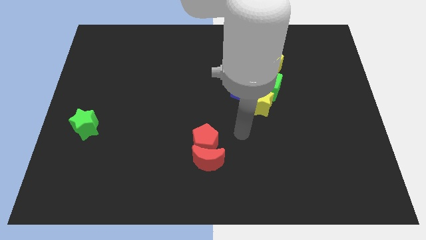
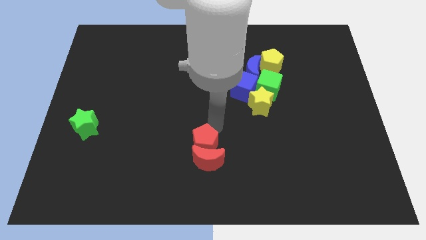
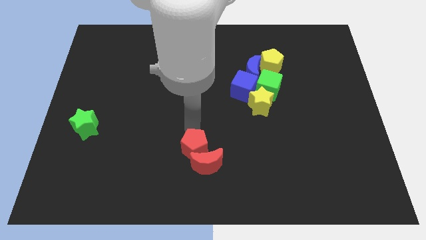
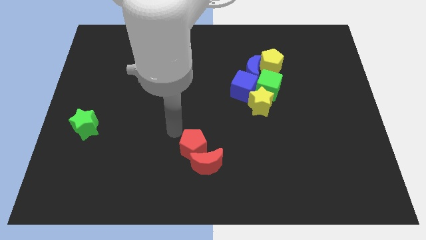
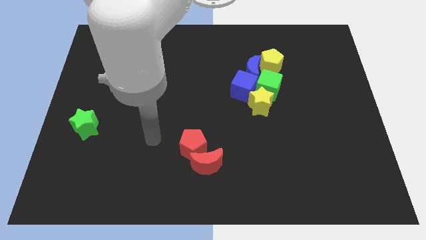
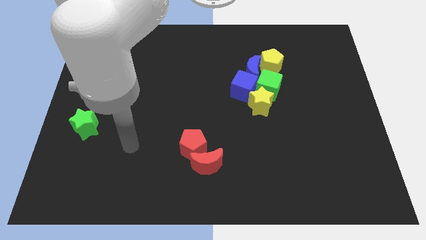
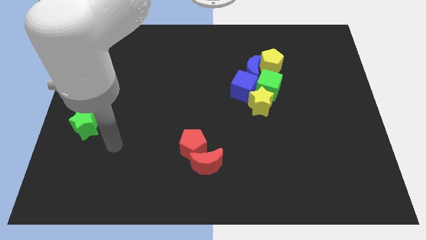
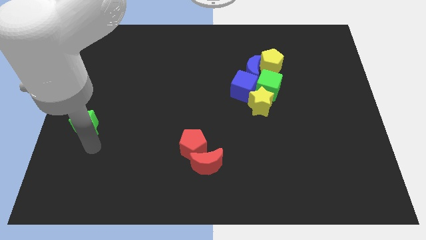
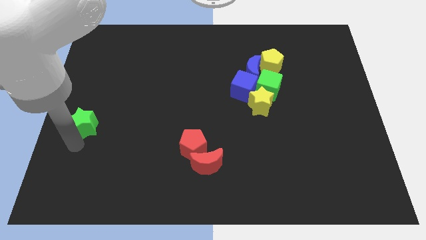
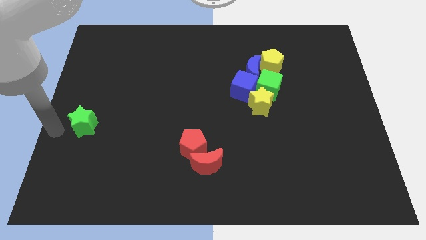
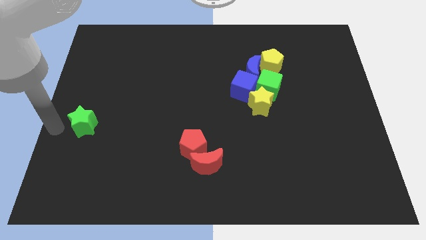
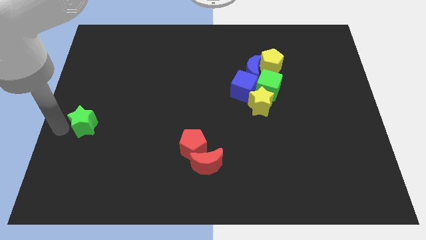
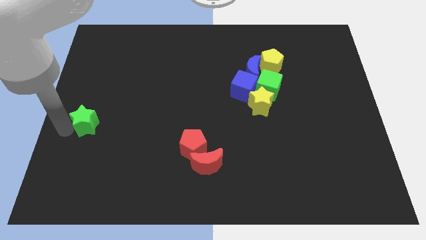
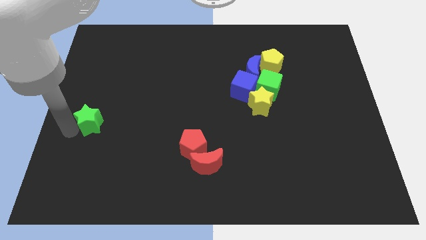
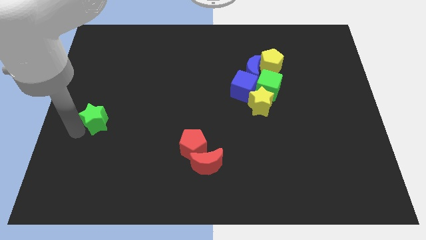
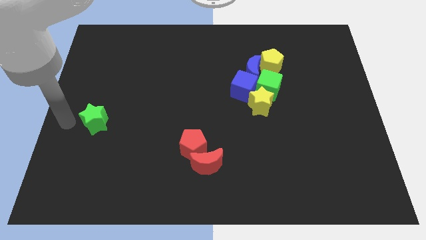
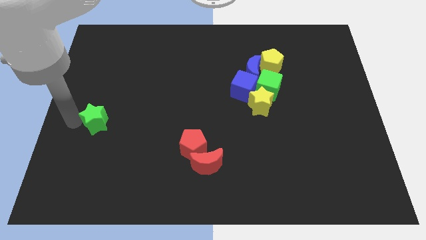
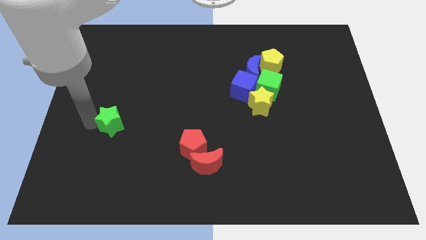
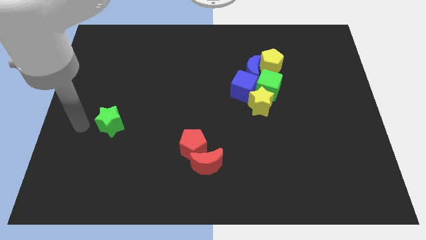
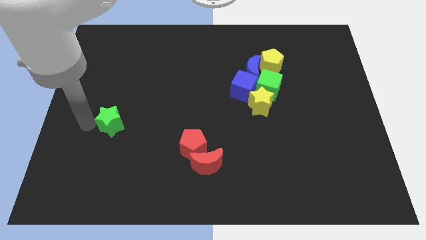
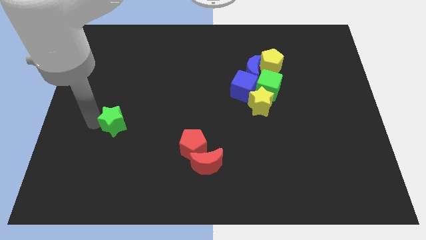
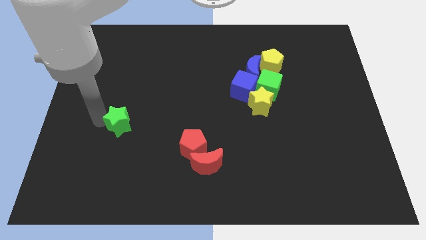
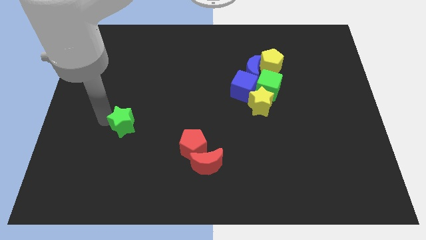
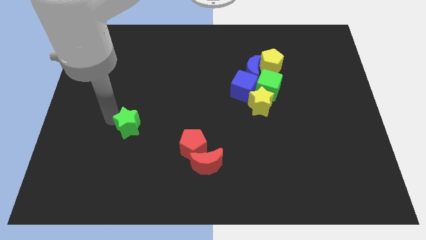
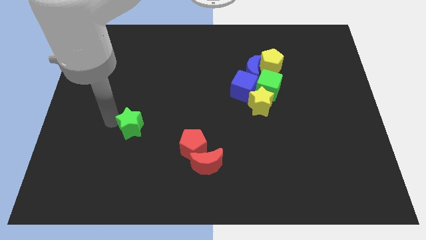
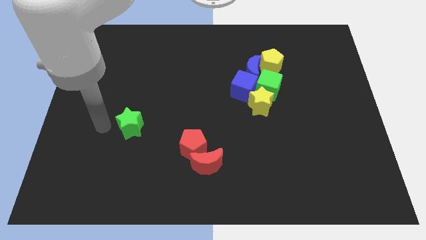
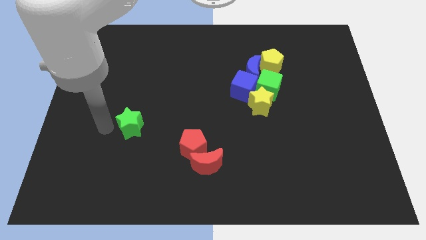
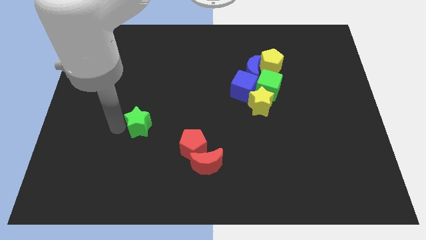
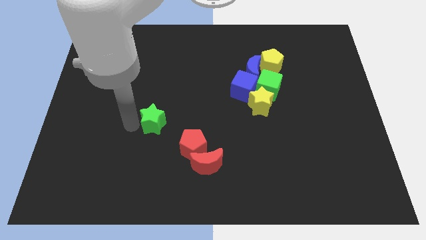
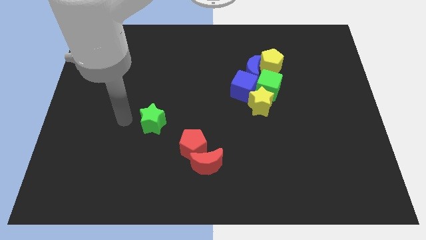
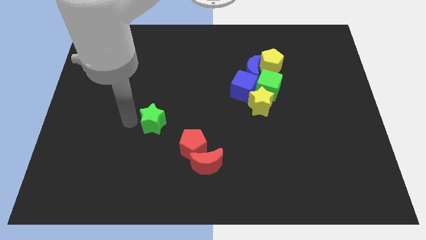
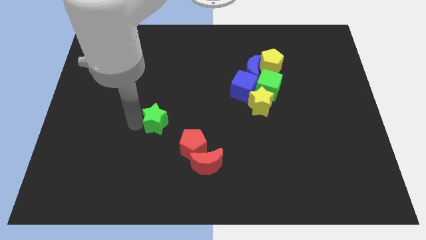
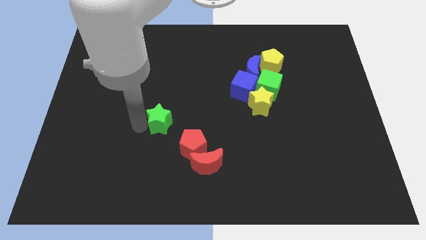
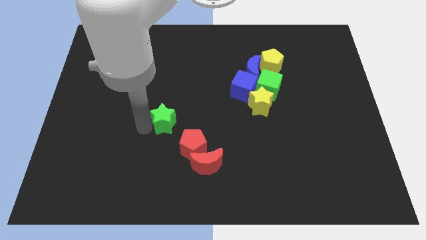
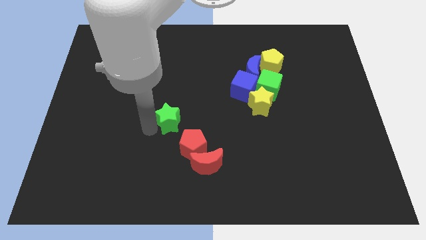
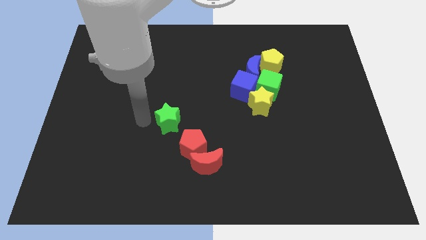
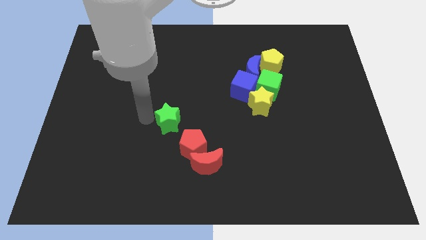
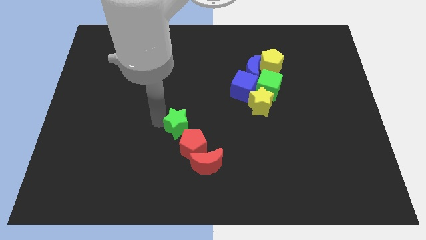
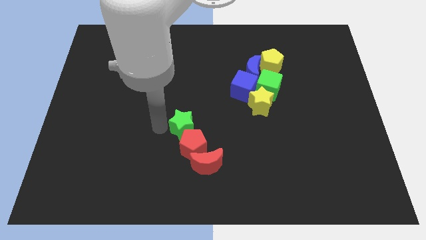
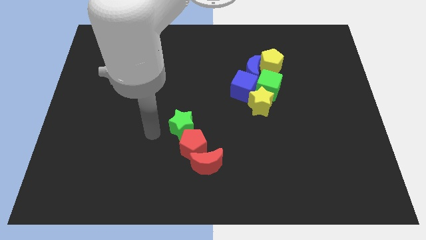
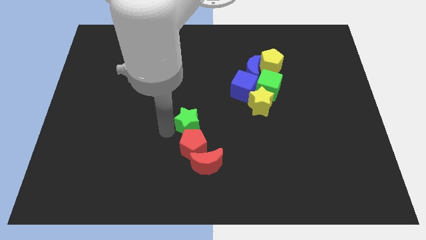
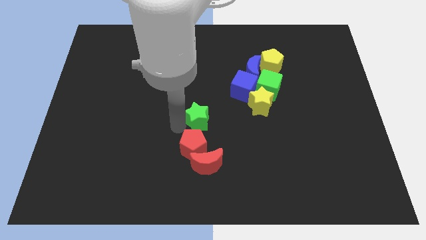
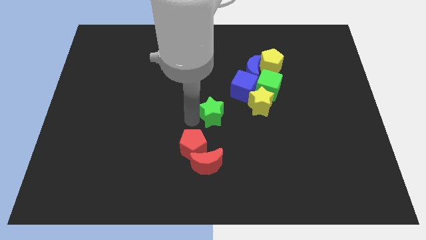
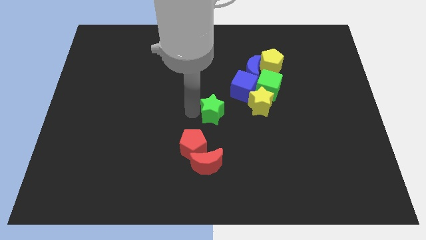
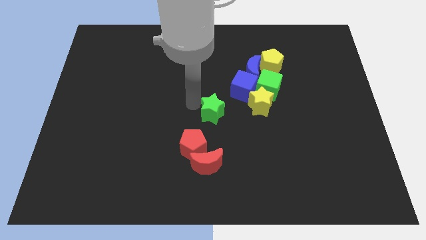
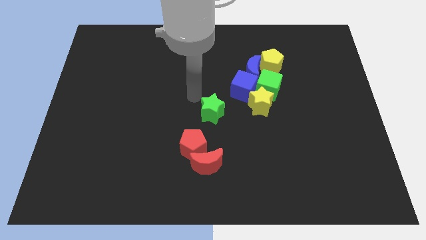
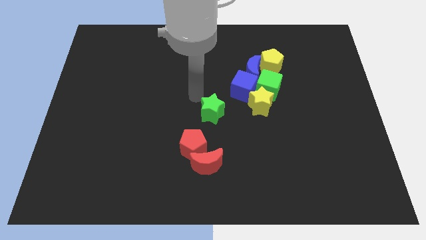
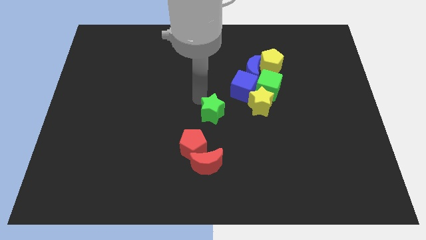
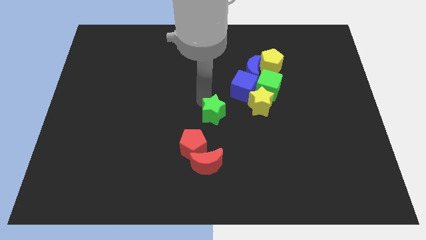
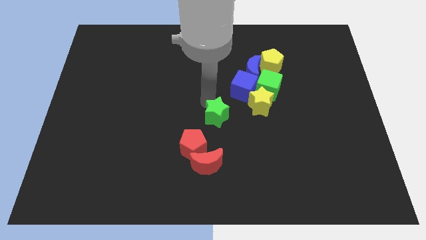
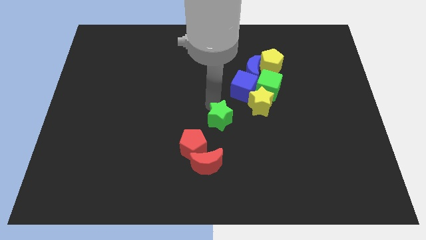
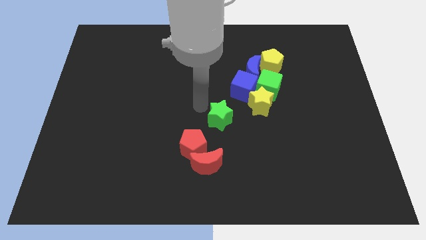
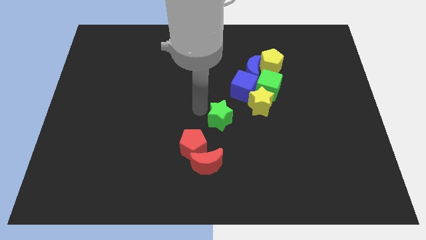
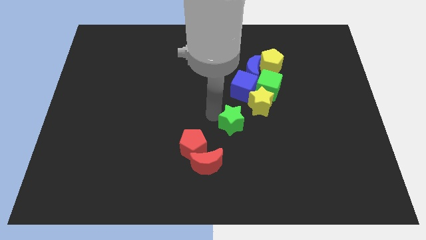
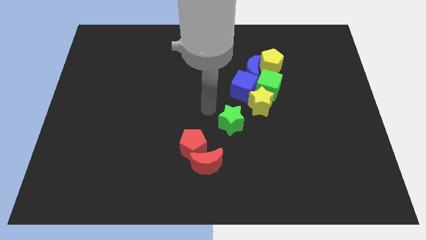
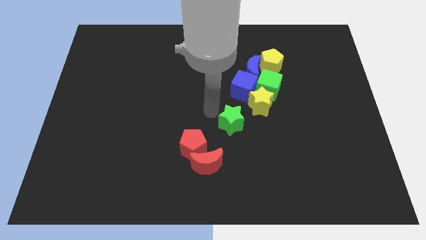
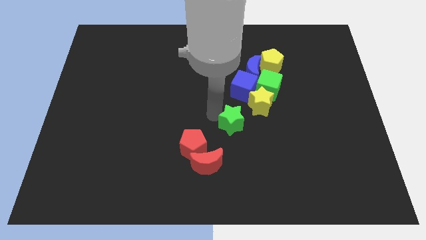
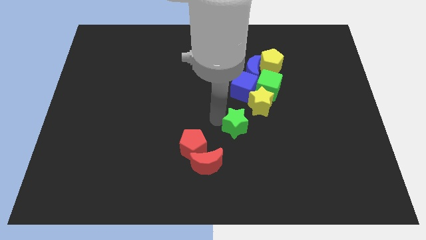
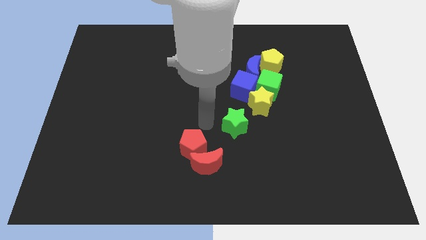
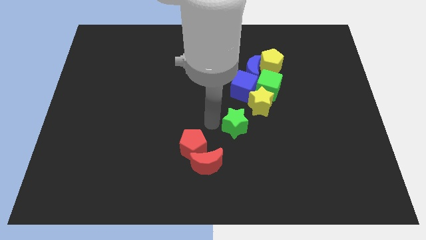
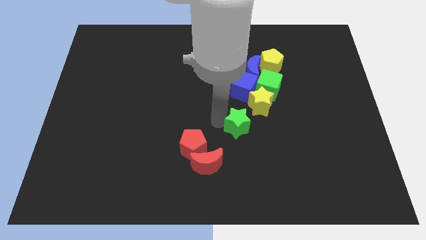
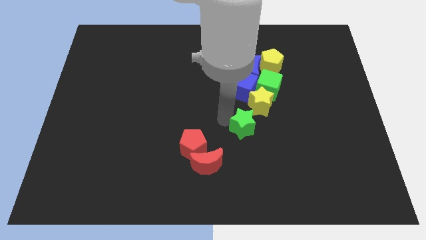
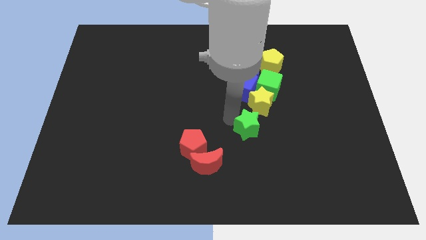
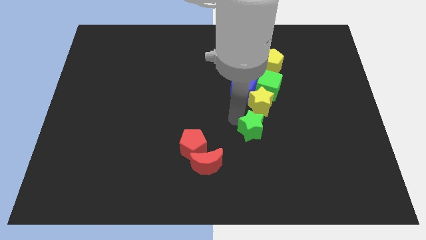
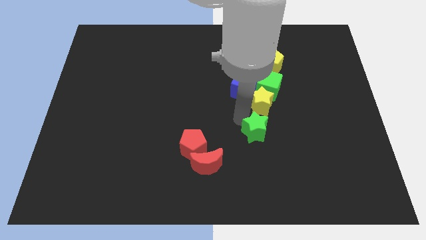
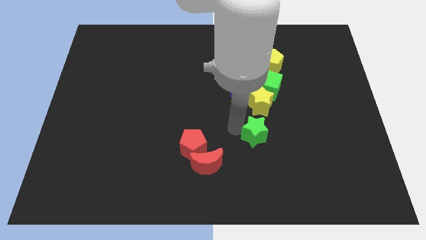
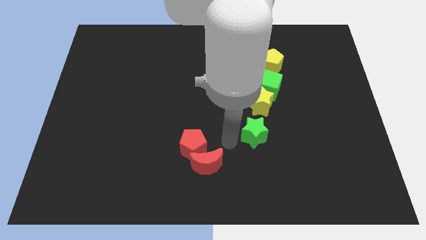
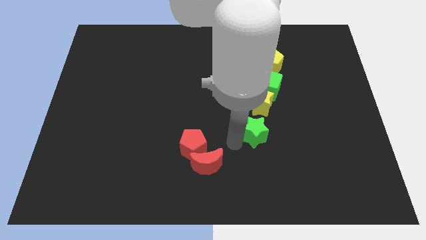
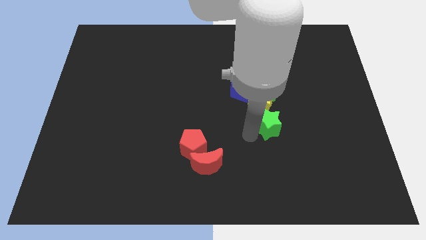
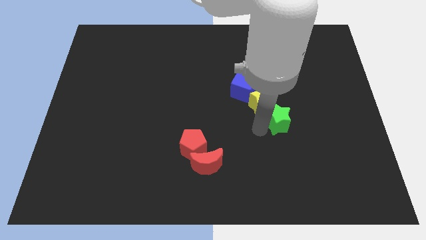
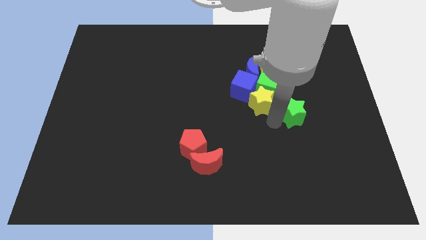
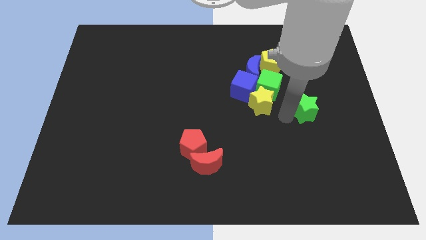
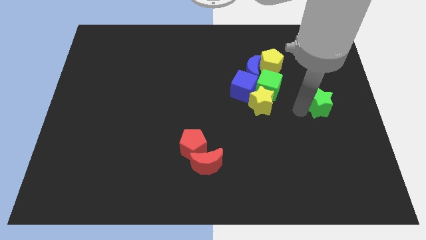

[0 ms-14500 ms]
move the green star to the center right
